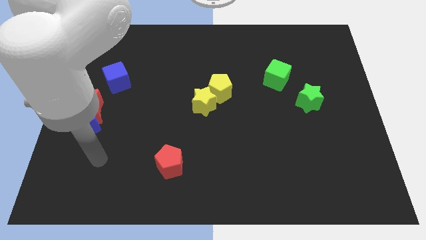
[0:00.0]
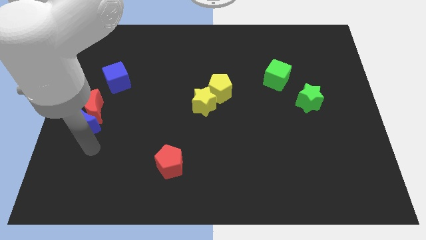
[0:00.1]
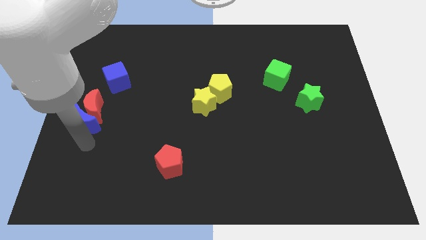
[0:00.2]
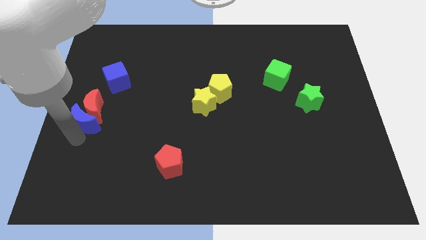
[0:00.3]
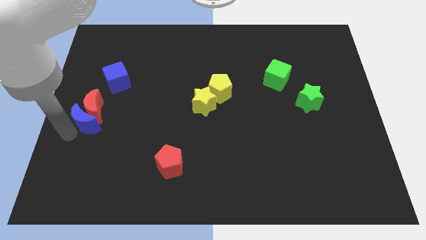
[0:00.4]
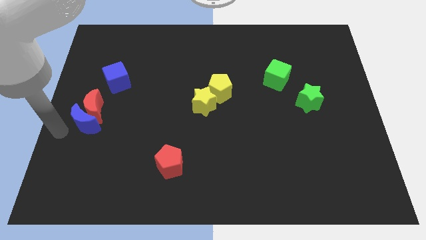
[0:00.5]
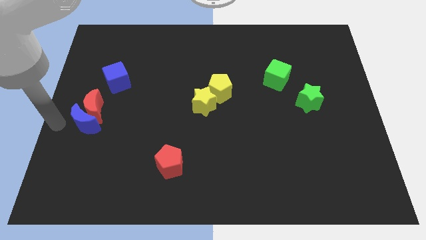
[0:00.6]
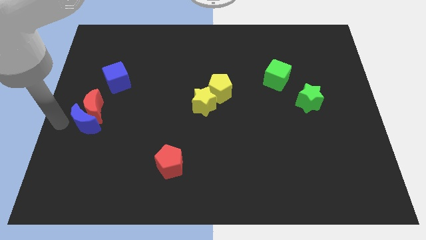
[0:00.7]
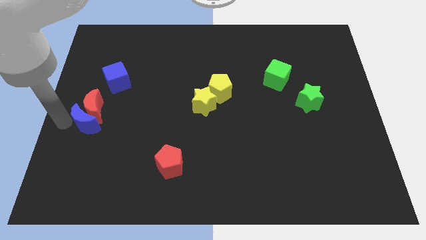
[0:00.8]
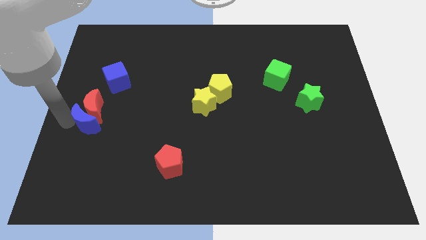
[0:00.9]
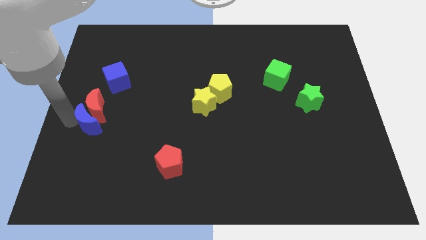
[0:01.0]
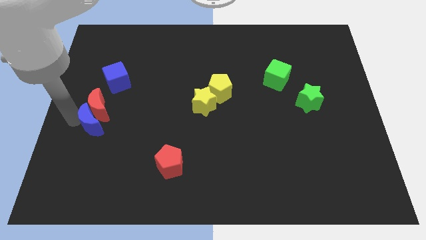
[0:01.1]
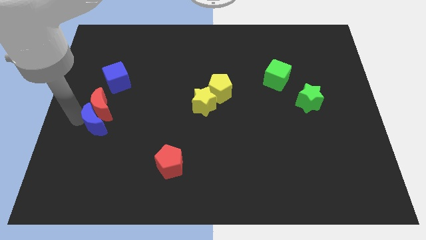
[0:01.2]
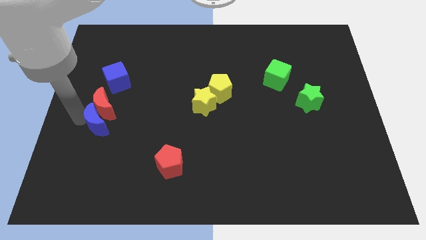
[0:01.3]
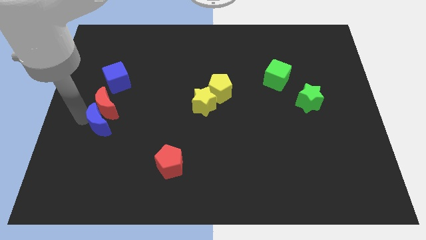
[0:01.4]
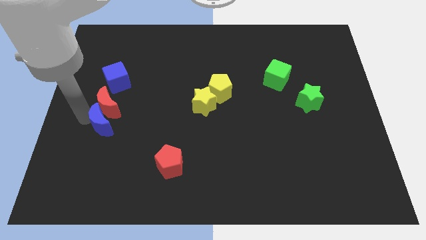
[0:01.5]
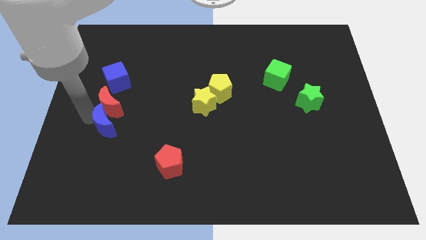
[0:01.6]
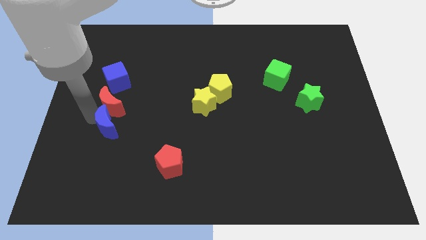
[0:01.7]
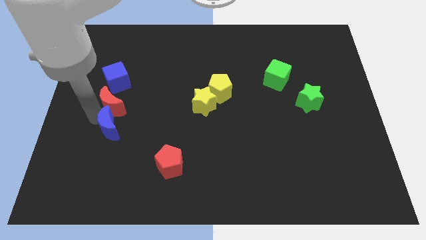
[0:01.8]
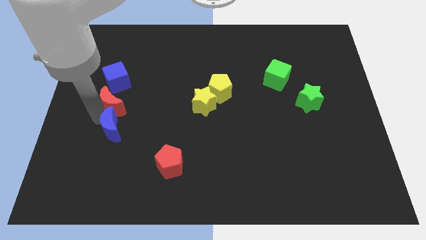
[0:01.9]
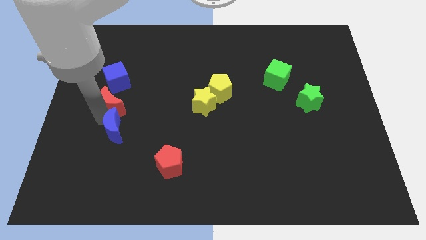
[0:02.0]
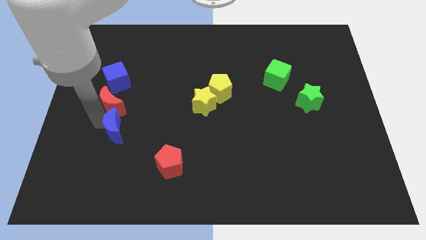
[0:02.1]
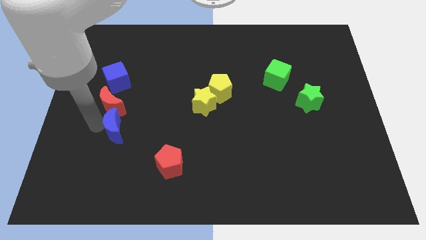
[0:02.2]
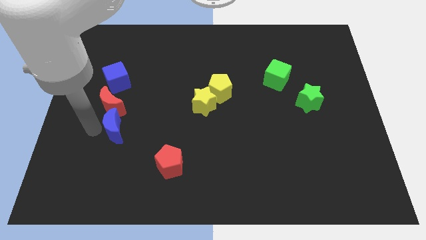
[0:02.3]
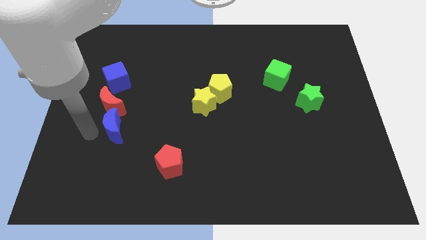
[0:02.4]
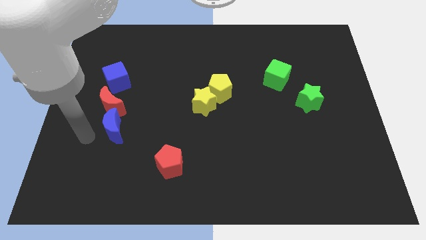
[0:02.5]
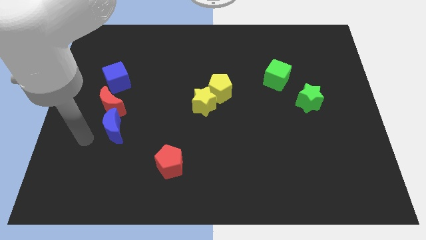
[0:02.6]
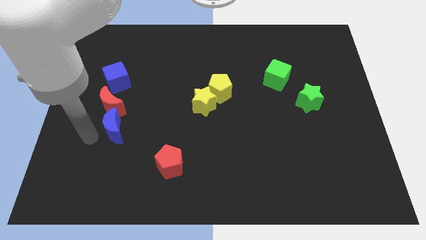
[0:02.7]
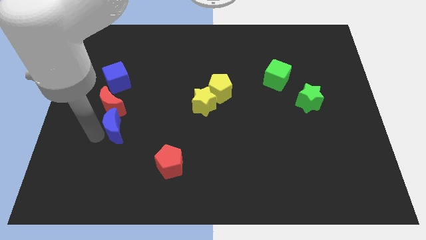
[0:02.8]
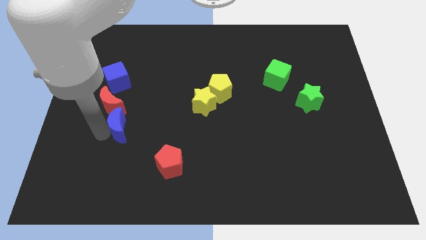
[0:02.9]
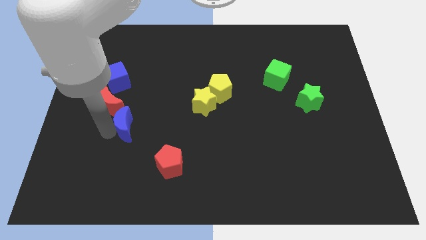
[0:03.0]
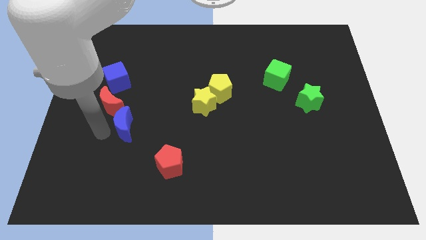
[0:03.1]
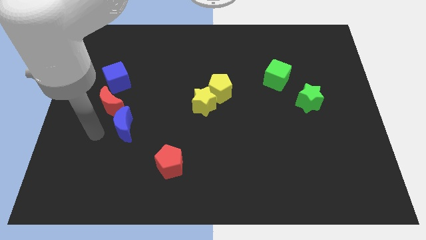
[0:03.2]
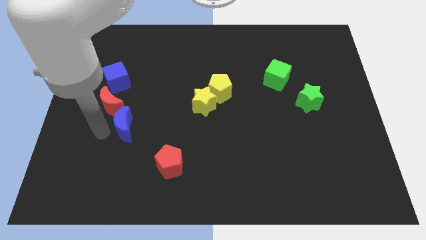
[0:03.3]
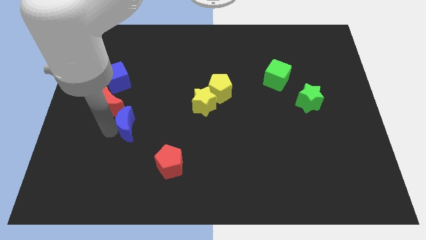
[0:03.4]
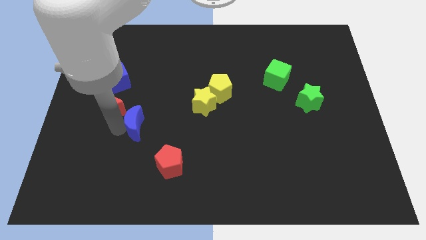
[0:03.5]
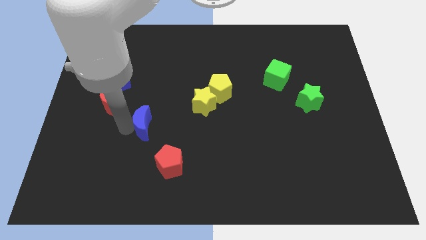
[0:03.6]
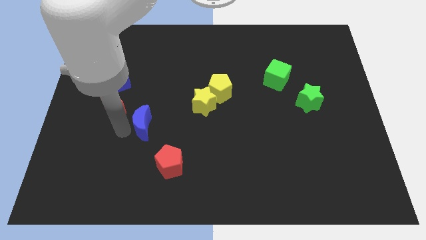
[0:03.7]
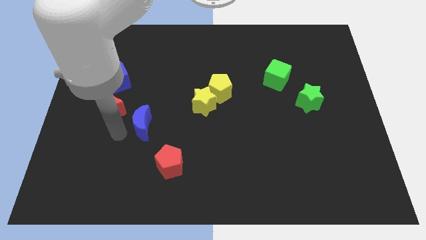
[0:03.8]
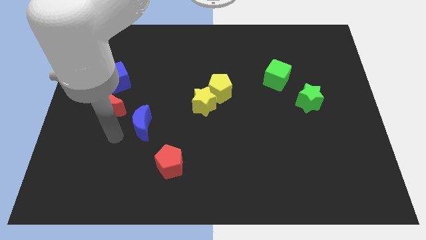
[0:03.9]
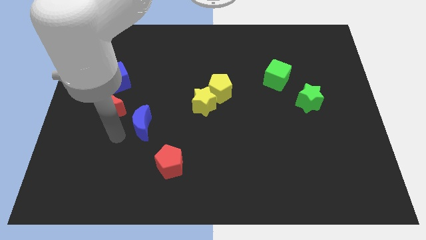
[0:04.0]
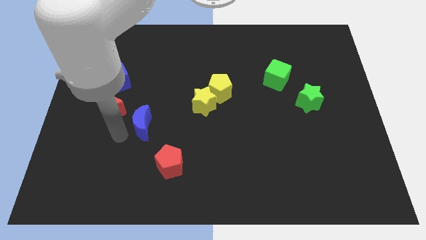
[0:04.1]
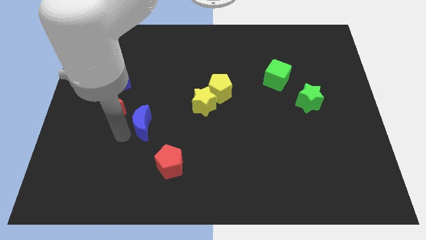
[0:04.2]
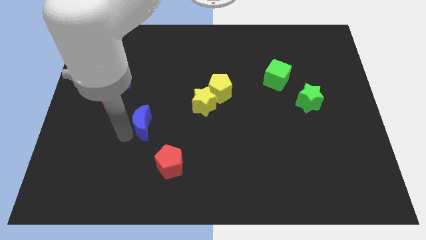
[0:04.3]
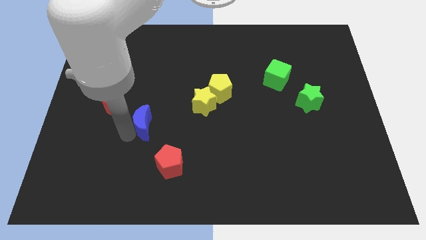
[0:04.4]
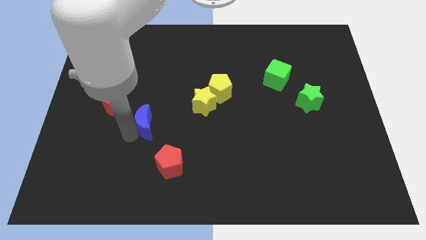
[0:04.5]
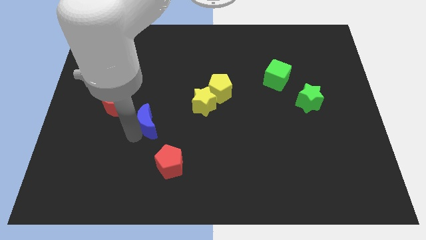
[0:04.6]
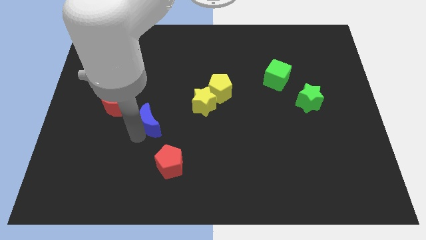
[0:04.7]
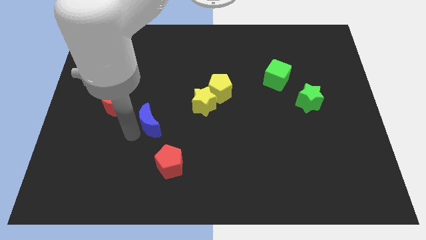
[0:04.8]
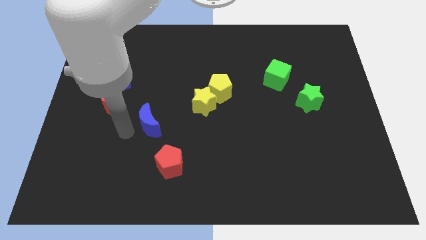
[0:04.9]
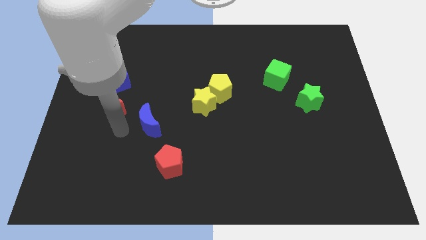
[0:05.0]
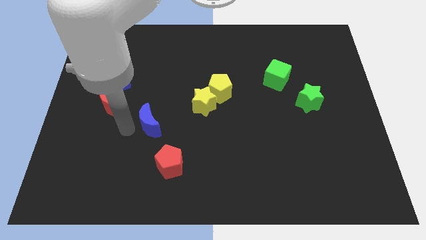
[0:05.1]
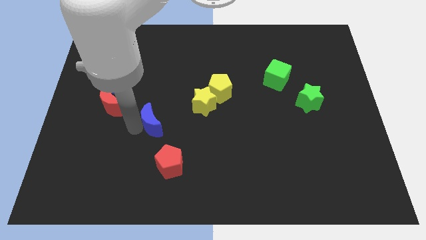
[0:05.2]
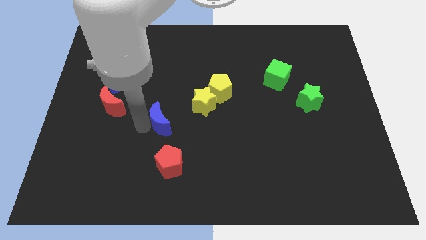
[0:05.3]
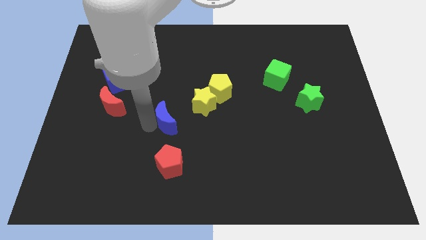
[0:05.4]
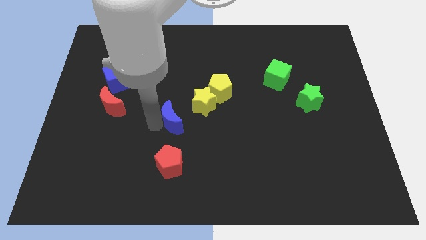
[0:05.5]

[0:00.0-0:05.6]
slide the blue moon to the right

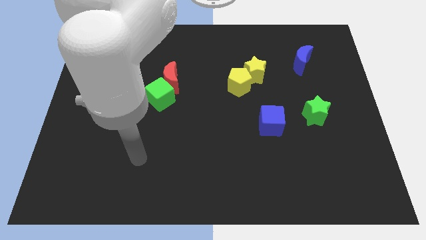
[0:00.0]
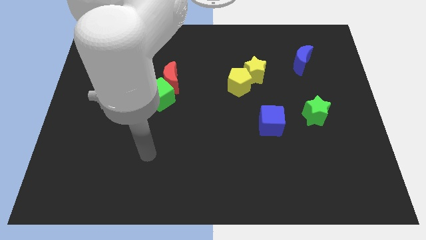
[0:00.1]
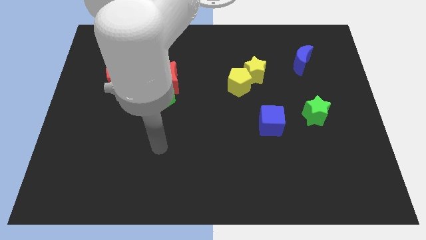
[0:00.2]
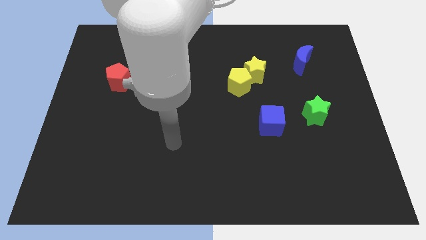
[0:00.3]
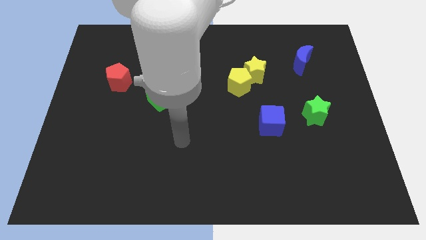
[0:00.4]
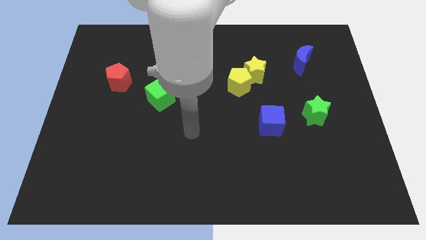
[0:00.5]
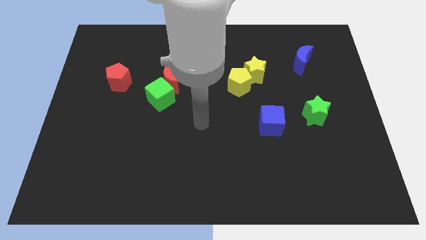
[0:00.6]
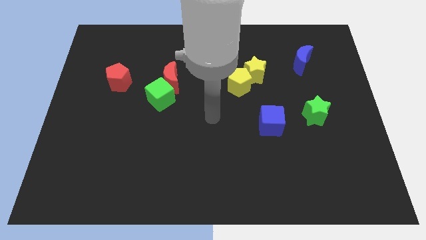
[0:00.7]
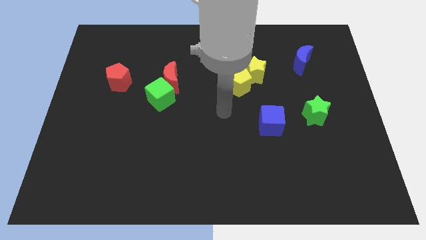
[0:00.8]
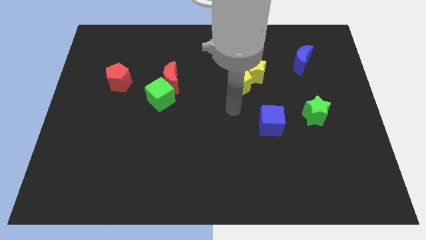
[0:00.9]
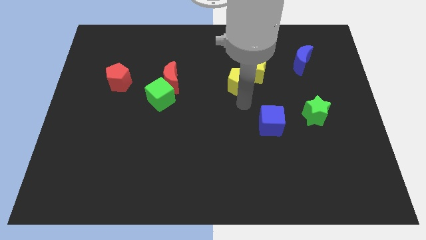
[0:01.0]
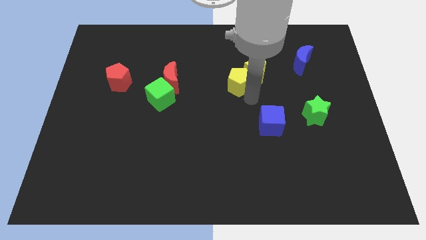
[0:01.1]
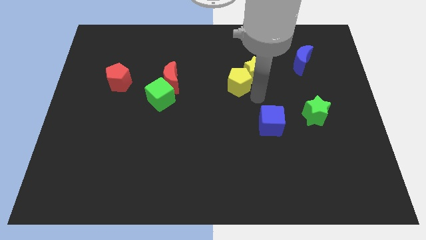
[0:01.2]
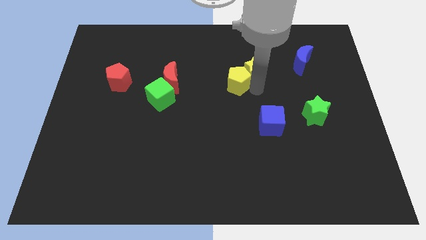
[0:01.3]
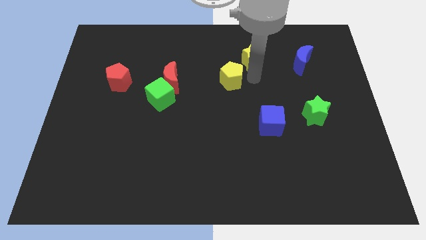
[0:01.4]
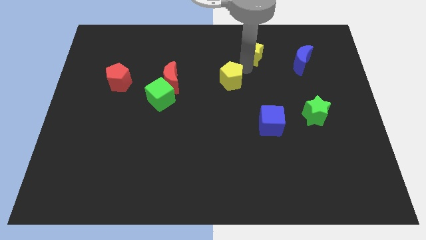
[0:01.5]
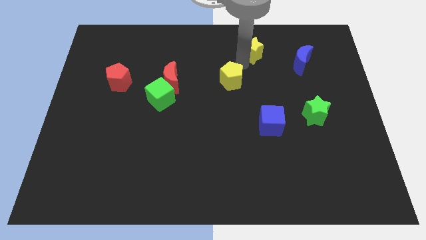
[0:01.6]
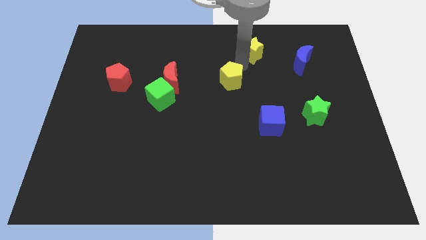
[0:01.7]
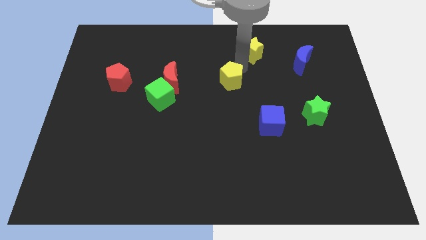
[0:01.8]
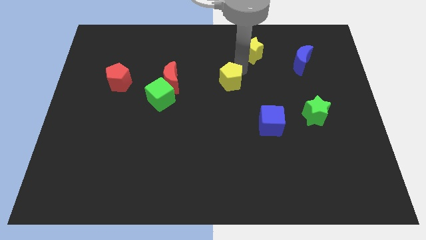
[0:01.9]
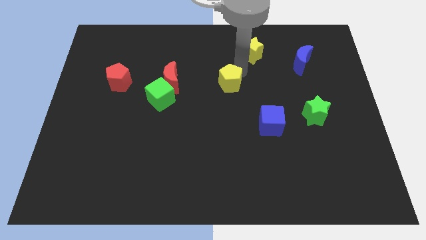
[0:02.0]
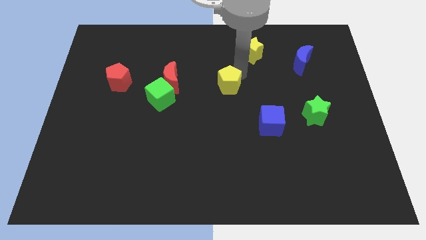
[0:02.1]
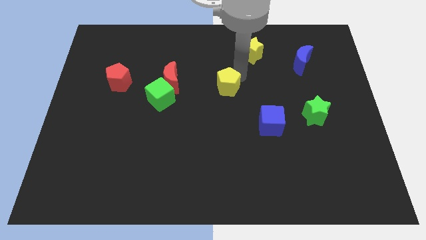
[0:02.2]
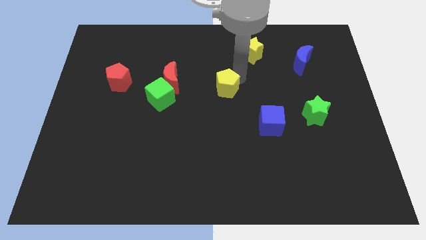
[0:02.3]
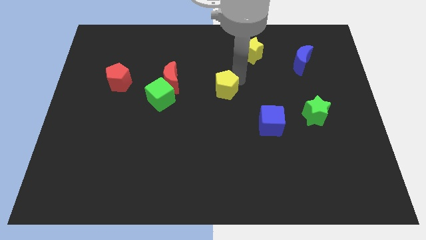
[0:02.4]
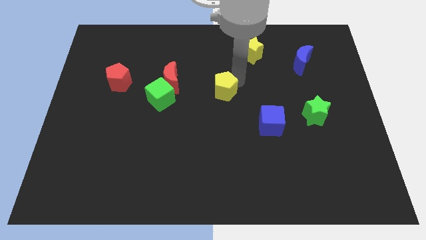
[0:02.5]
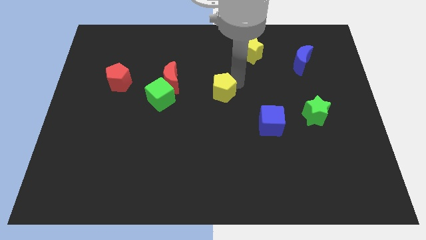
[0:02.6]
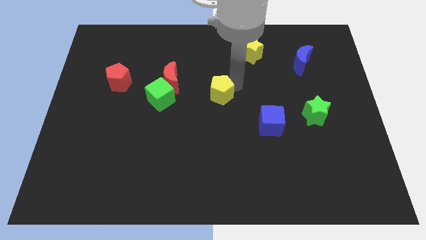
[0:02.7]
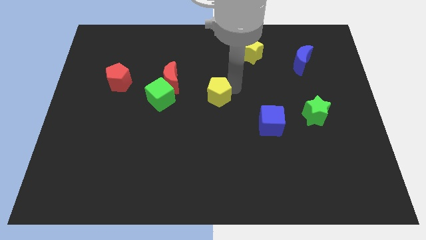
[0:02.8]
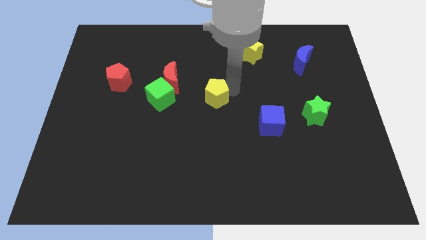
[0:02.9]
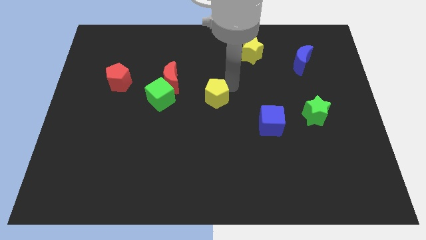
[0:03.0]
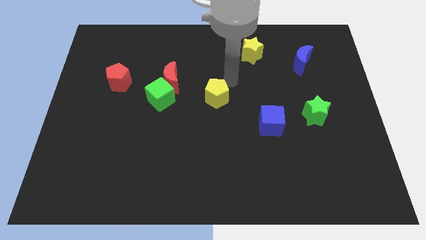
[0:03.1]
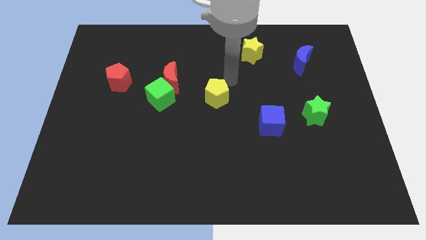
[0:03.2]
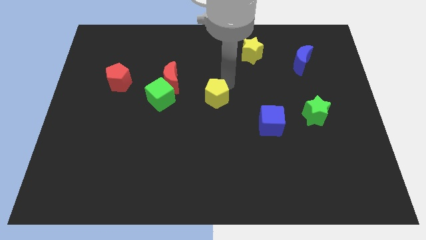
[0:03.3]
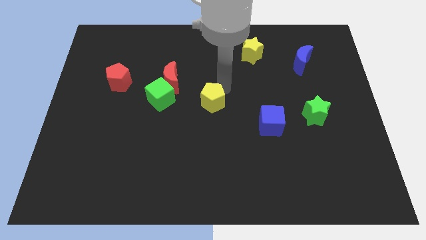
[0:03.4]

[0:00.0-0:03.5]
move the yellow pentagon a little bit diagonally downwards and left
